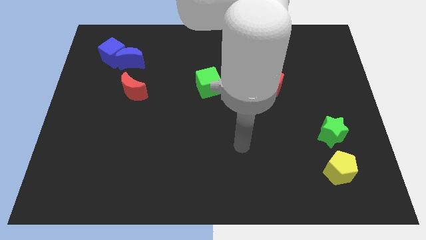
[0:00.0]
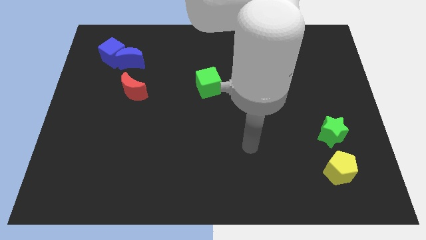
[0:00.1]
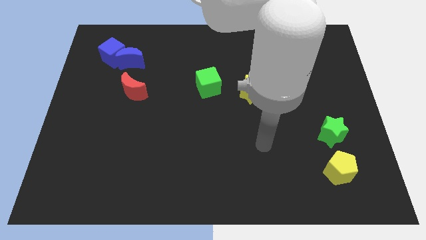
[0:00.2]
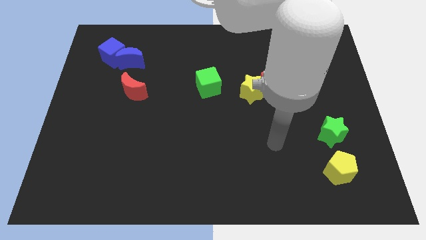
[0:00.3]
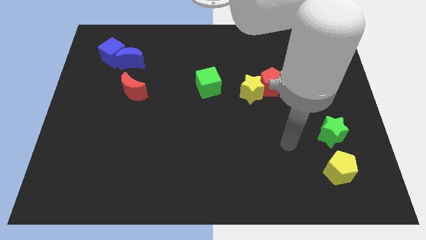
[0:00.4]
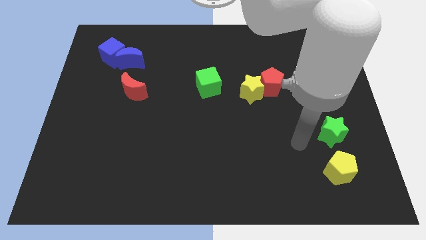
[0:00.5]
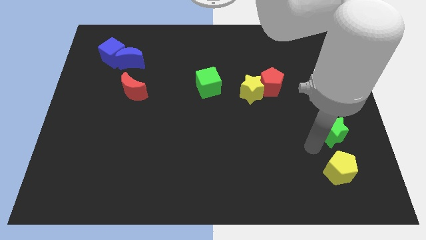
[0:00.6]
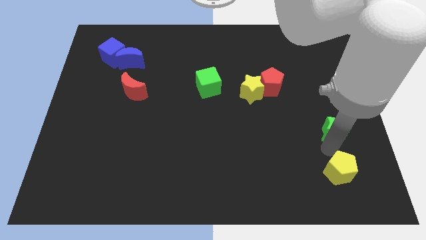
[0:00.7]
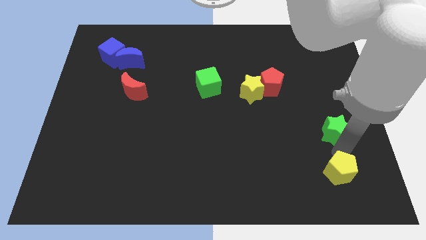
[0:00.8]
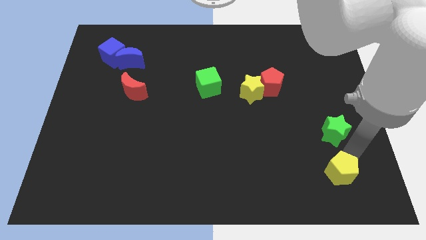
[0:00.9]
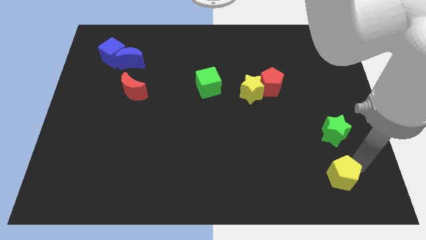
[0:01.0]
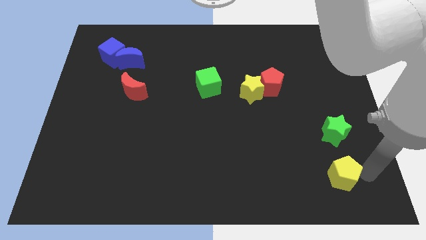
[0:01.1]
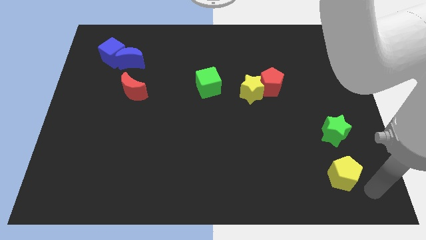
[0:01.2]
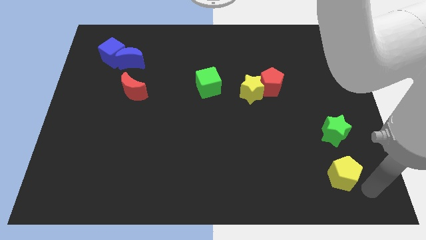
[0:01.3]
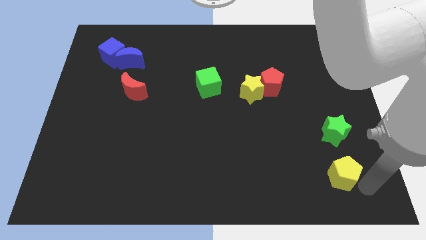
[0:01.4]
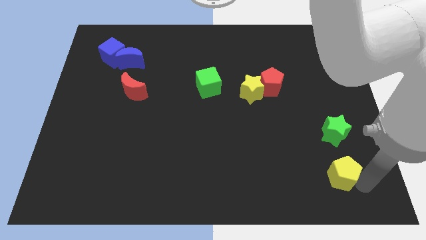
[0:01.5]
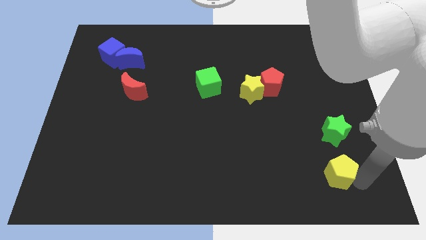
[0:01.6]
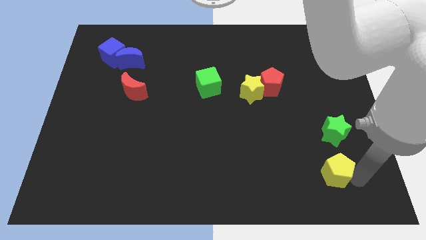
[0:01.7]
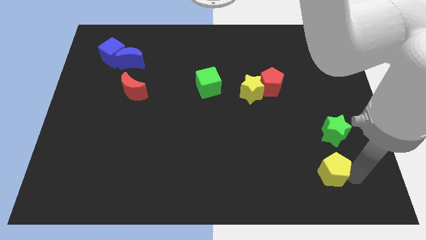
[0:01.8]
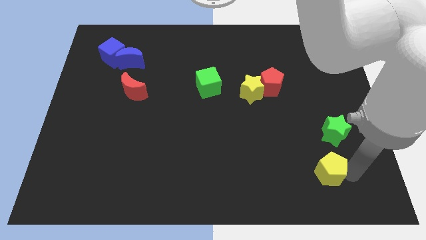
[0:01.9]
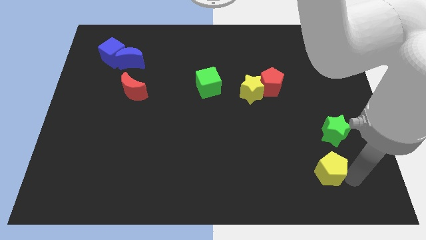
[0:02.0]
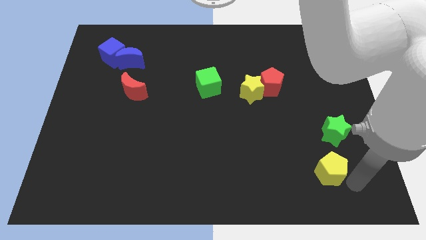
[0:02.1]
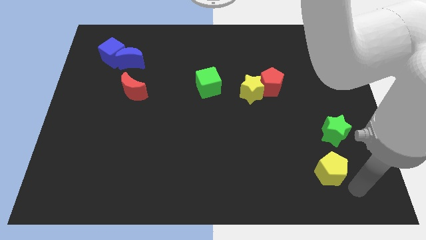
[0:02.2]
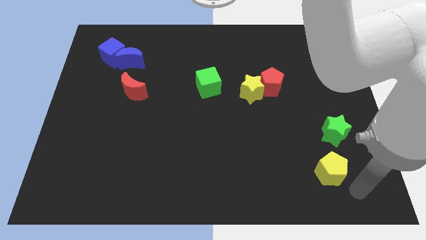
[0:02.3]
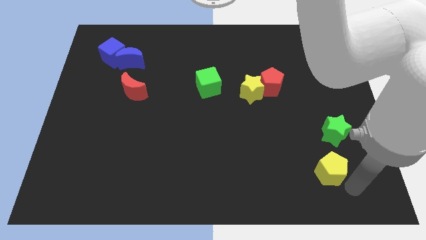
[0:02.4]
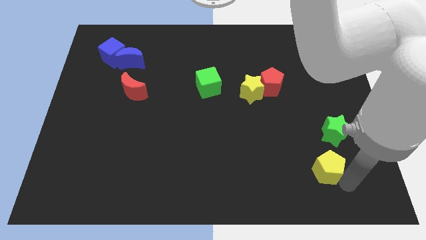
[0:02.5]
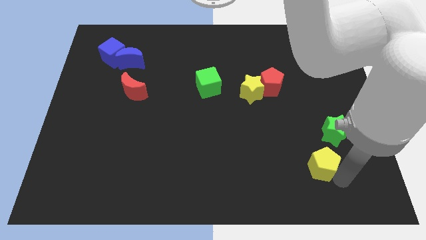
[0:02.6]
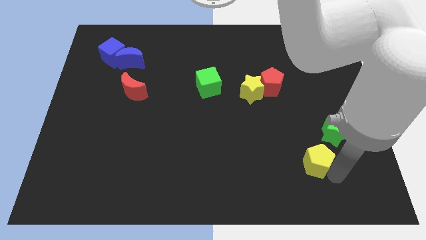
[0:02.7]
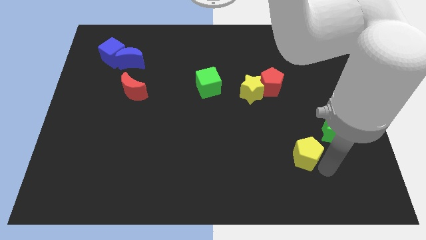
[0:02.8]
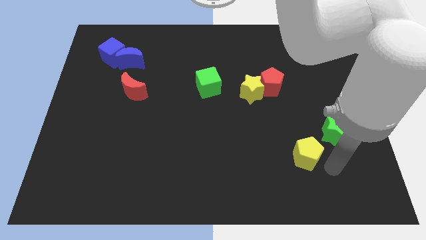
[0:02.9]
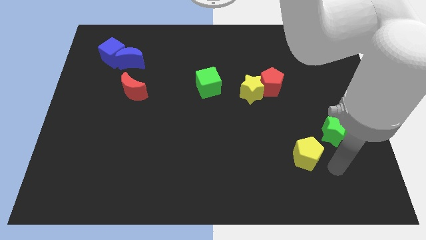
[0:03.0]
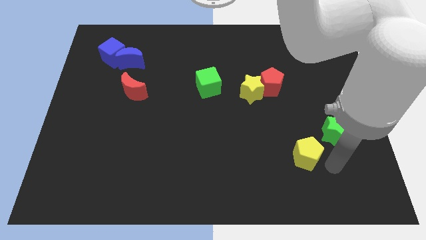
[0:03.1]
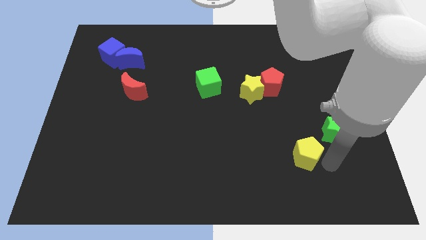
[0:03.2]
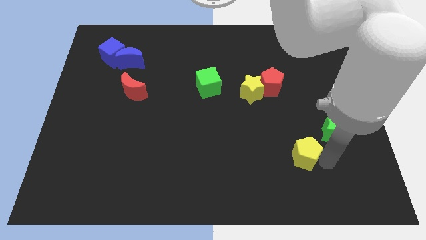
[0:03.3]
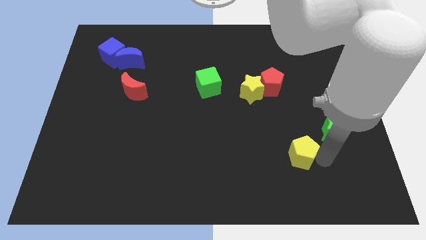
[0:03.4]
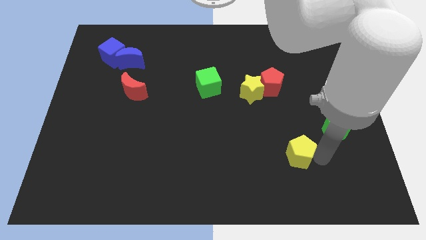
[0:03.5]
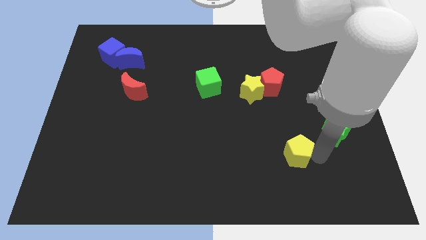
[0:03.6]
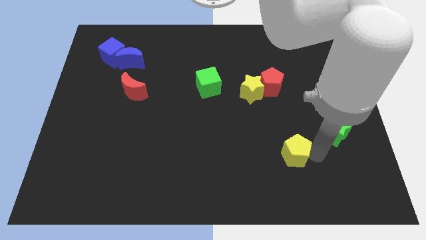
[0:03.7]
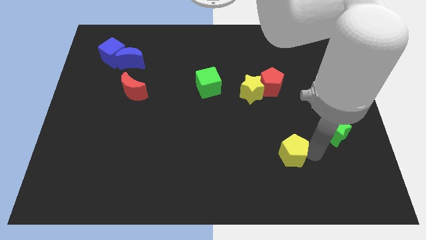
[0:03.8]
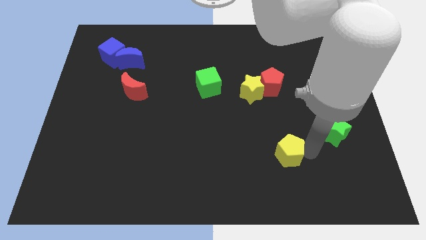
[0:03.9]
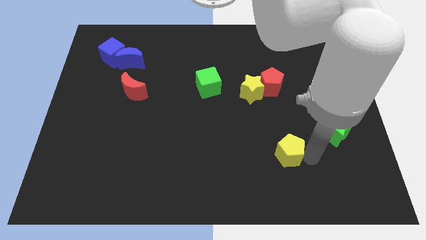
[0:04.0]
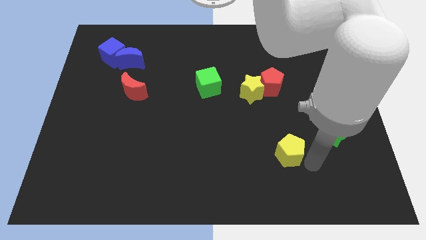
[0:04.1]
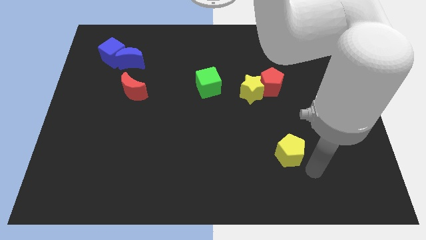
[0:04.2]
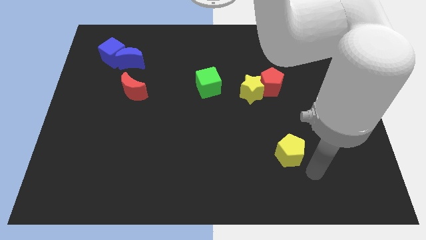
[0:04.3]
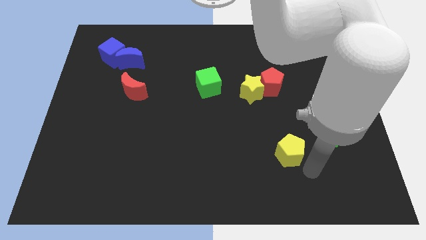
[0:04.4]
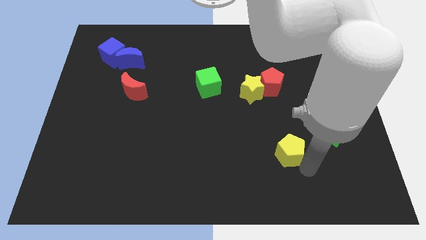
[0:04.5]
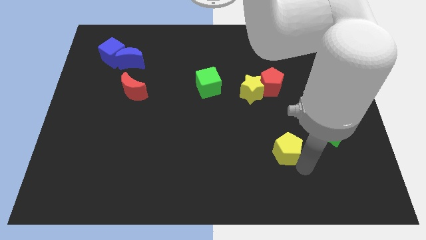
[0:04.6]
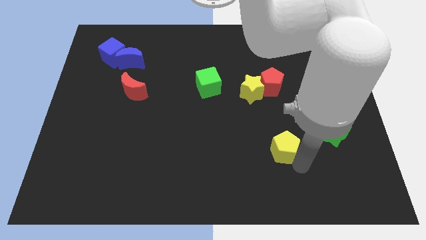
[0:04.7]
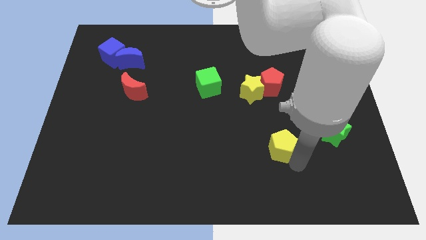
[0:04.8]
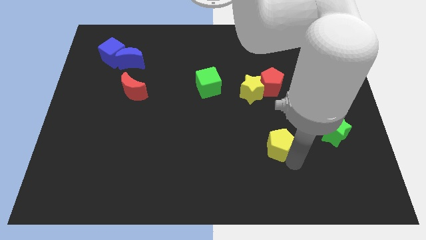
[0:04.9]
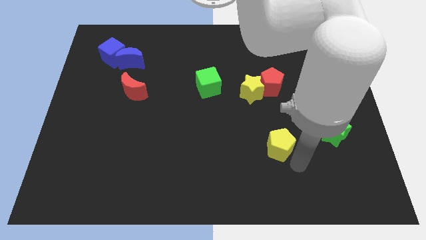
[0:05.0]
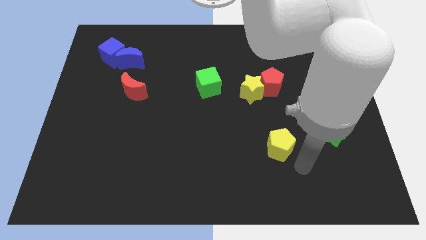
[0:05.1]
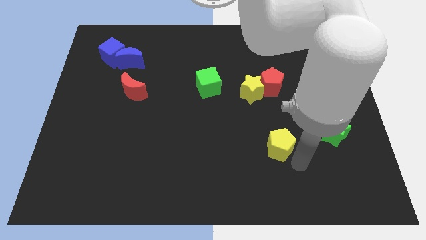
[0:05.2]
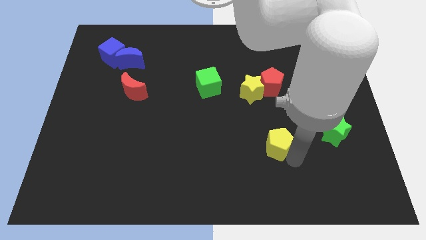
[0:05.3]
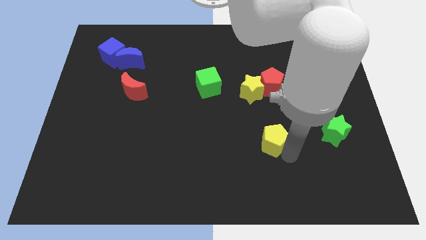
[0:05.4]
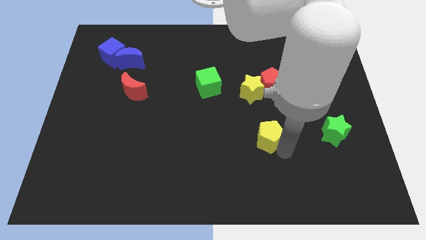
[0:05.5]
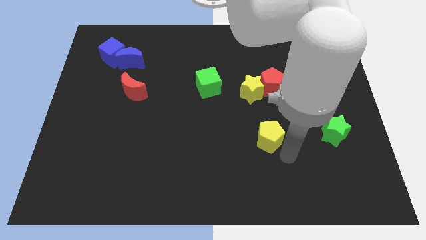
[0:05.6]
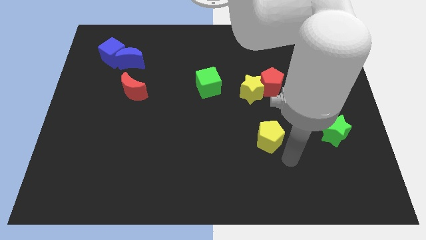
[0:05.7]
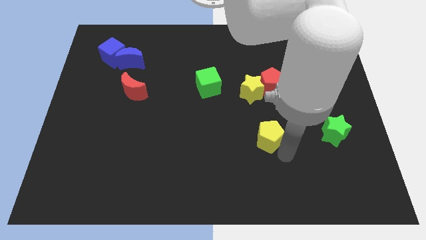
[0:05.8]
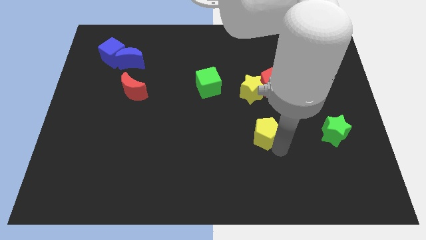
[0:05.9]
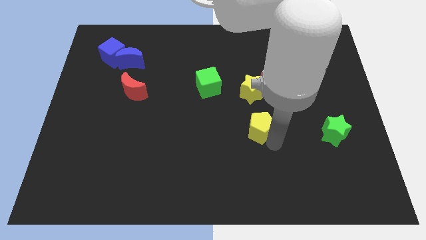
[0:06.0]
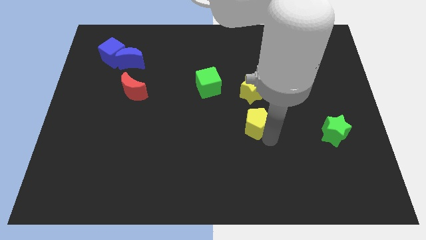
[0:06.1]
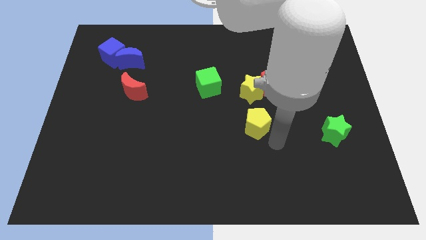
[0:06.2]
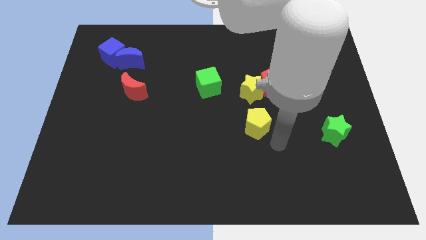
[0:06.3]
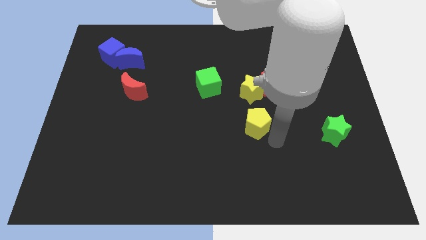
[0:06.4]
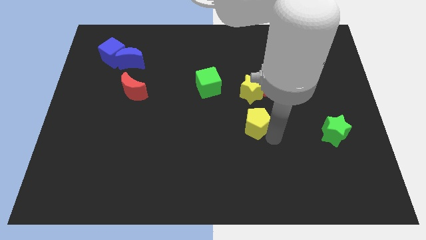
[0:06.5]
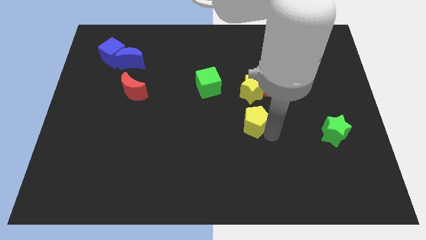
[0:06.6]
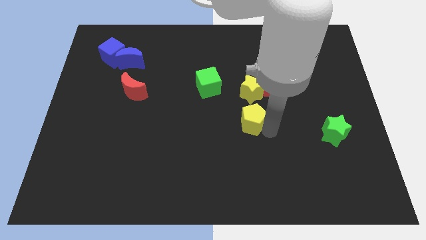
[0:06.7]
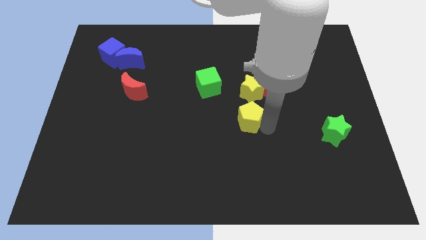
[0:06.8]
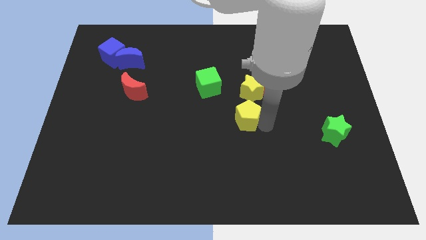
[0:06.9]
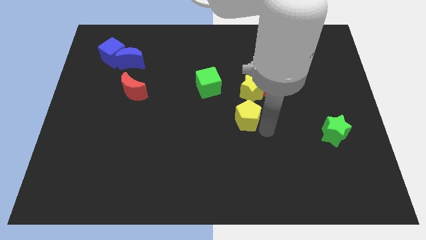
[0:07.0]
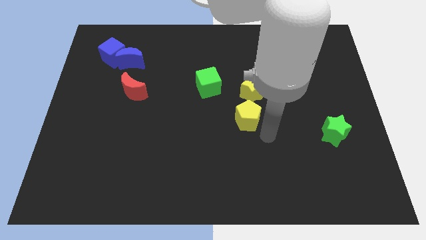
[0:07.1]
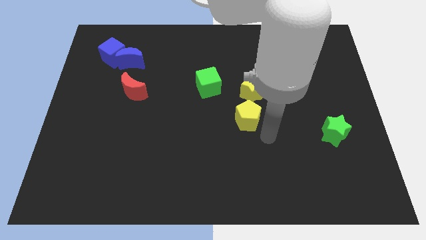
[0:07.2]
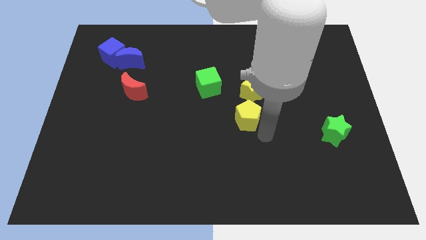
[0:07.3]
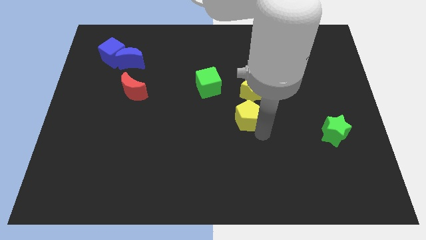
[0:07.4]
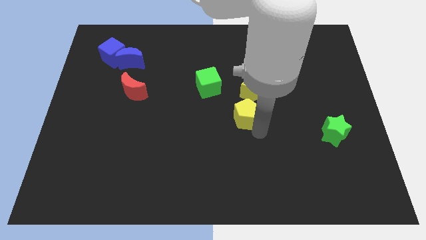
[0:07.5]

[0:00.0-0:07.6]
put the yellow pentagon to the bottom right side of the green cube

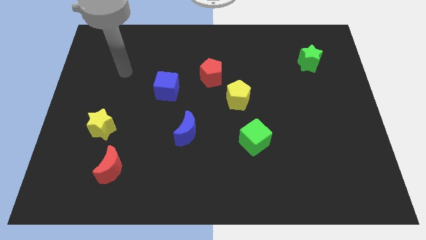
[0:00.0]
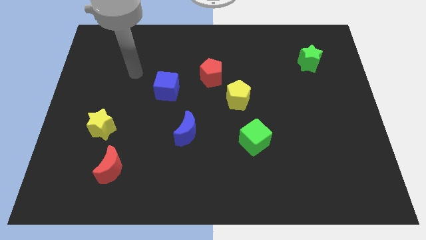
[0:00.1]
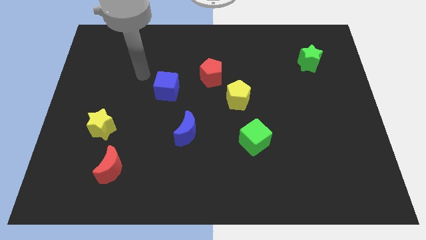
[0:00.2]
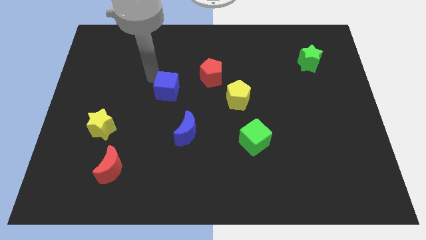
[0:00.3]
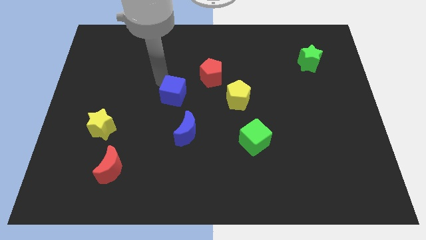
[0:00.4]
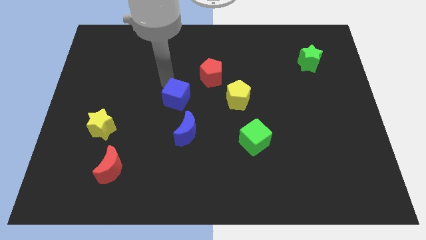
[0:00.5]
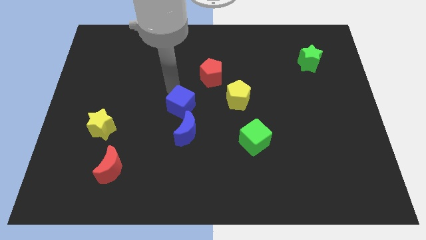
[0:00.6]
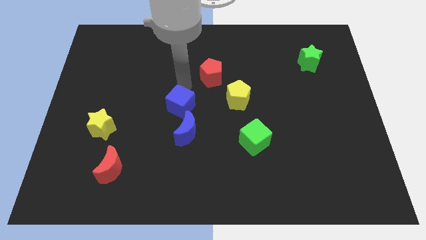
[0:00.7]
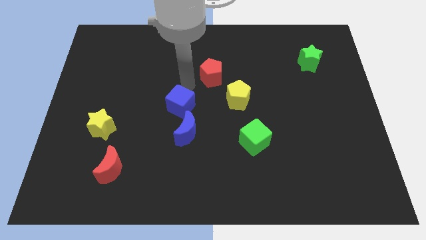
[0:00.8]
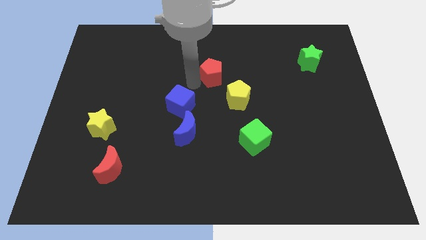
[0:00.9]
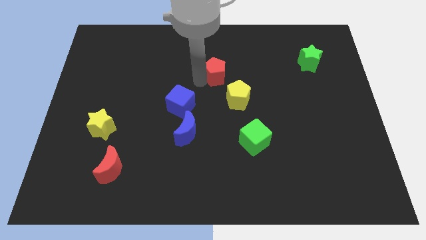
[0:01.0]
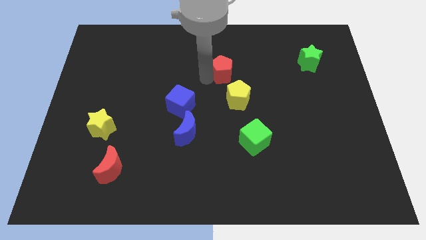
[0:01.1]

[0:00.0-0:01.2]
move the red pentagon above the yellow pentagon
